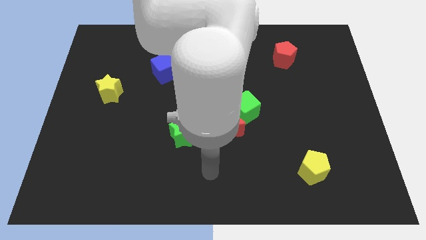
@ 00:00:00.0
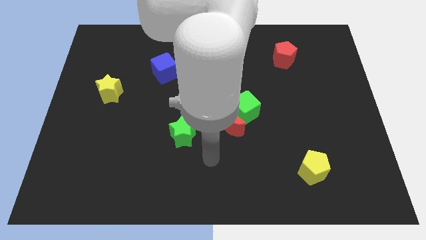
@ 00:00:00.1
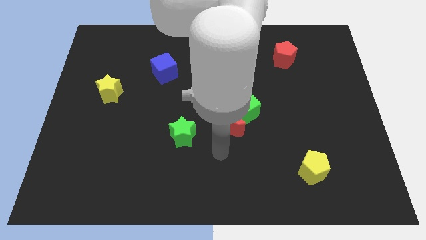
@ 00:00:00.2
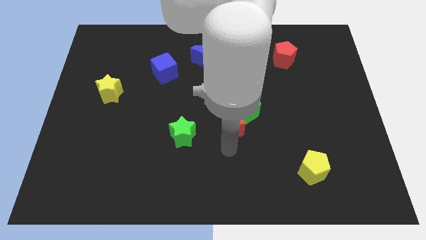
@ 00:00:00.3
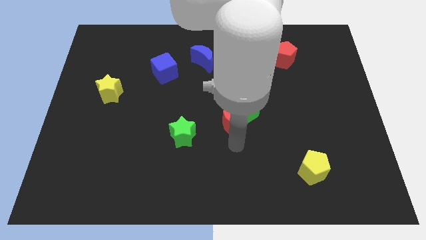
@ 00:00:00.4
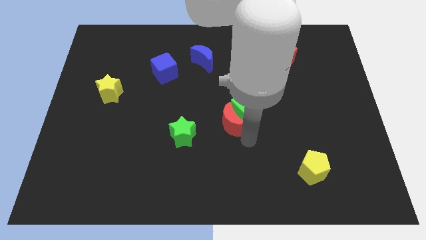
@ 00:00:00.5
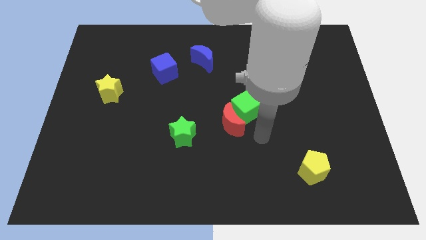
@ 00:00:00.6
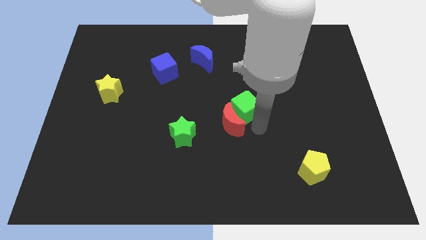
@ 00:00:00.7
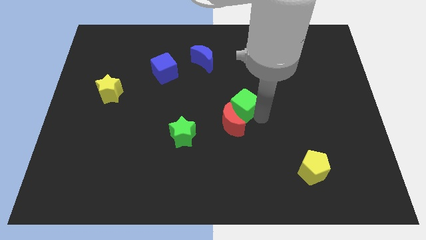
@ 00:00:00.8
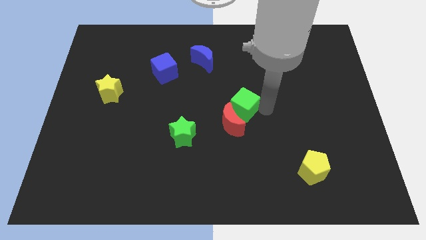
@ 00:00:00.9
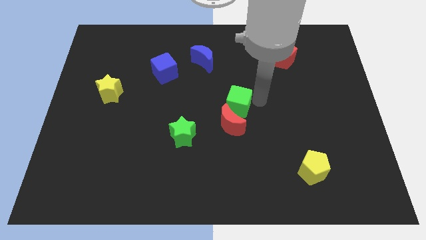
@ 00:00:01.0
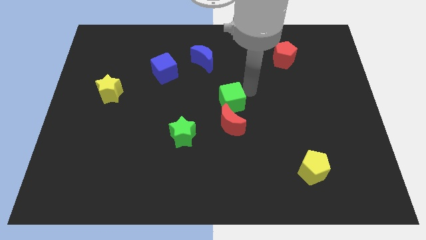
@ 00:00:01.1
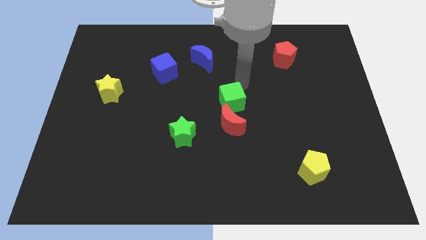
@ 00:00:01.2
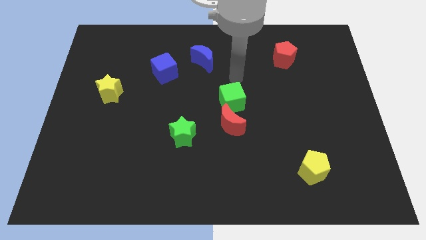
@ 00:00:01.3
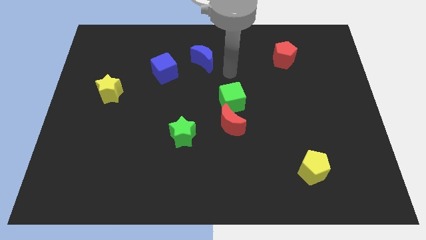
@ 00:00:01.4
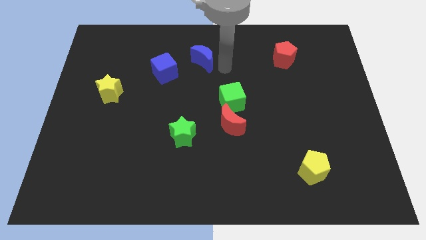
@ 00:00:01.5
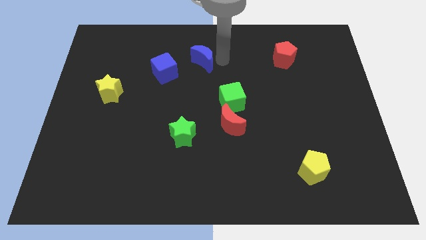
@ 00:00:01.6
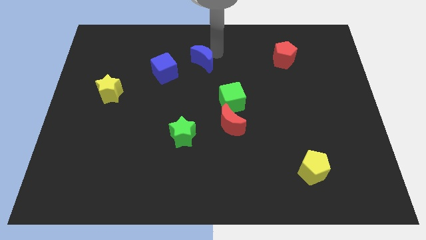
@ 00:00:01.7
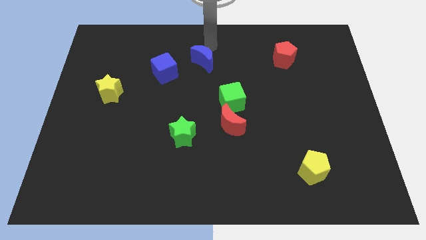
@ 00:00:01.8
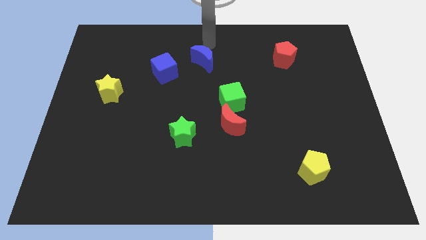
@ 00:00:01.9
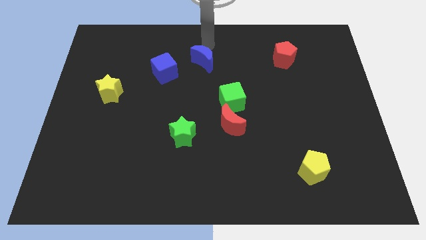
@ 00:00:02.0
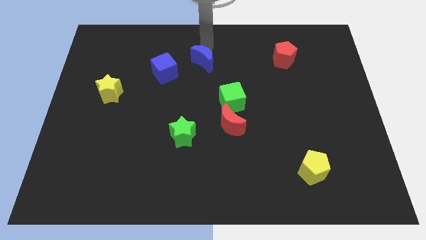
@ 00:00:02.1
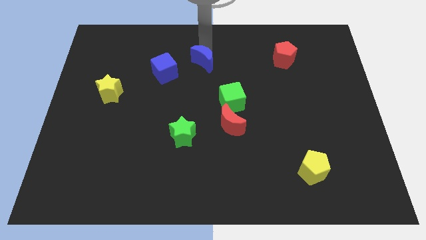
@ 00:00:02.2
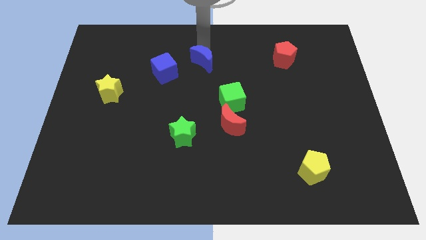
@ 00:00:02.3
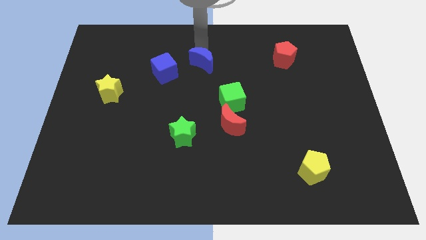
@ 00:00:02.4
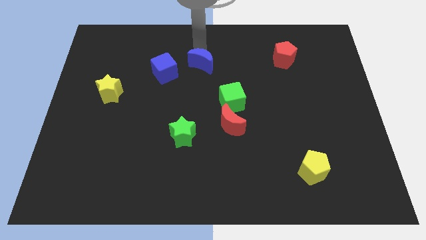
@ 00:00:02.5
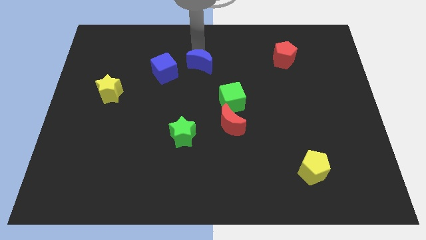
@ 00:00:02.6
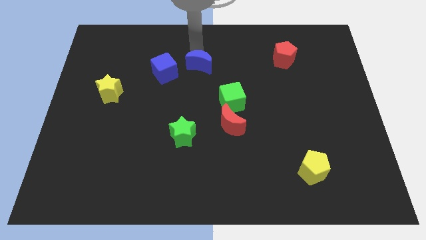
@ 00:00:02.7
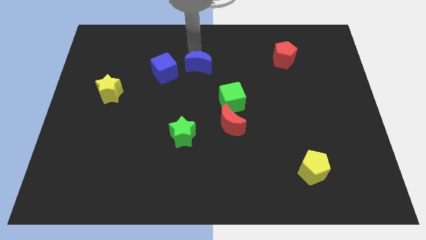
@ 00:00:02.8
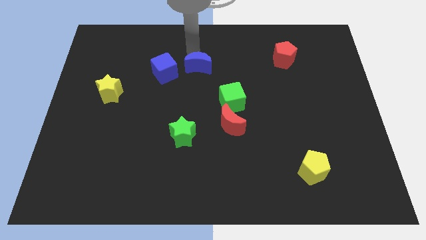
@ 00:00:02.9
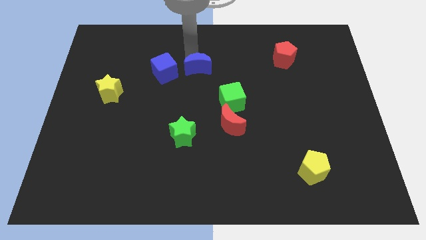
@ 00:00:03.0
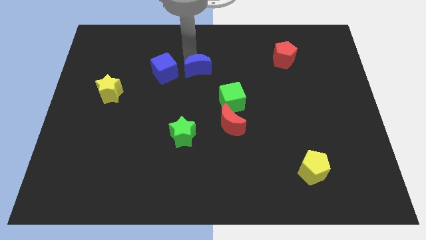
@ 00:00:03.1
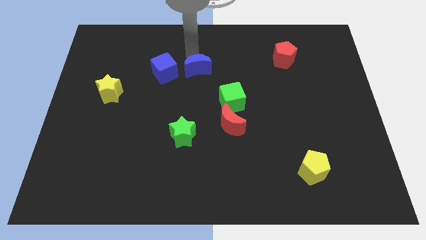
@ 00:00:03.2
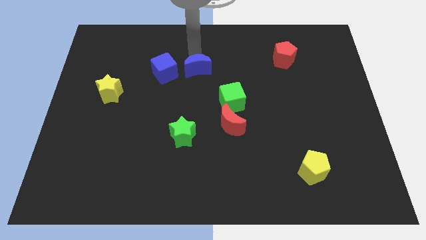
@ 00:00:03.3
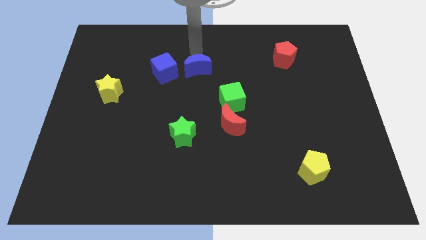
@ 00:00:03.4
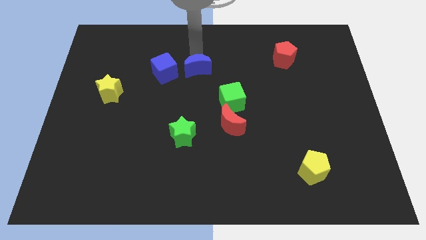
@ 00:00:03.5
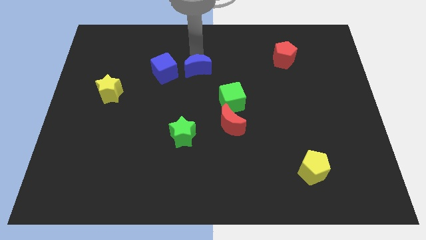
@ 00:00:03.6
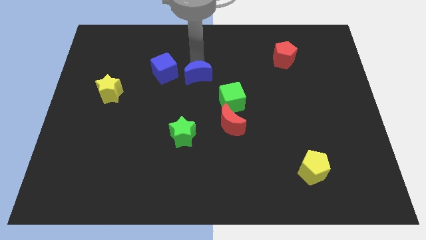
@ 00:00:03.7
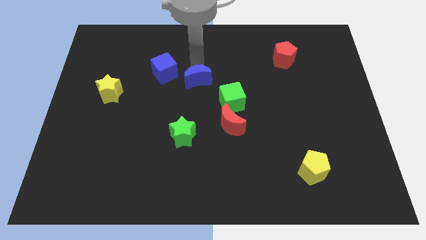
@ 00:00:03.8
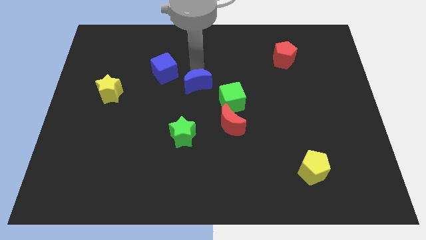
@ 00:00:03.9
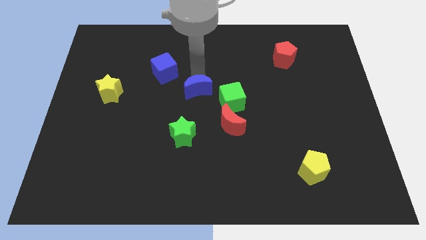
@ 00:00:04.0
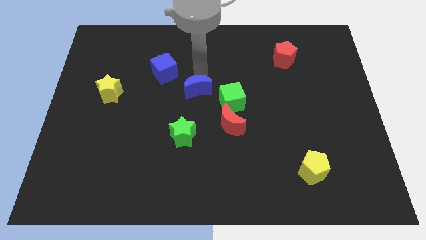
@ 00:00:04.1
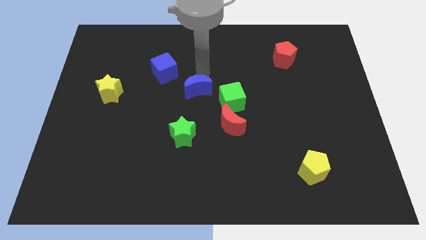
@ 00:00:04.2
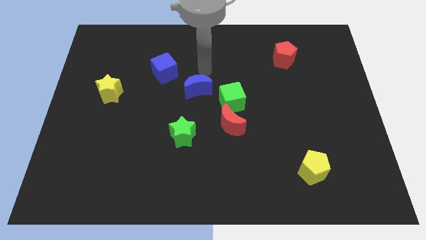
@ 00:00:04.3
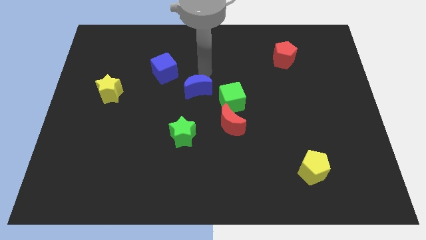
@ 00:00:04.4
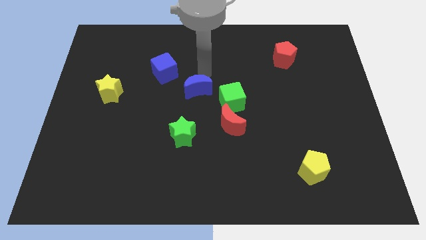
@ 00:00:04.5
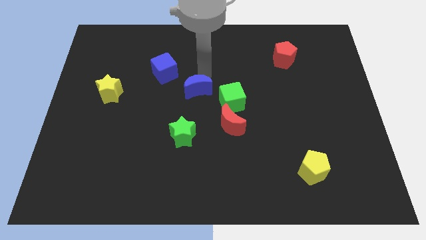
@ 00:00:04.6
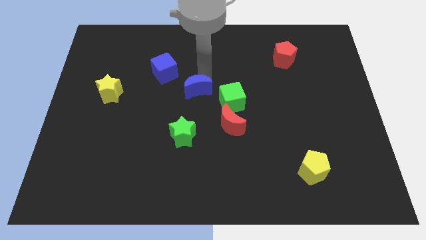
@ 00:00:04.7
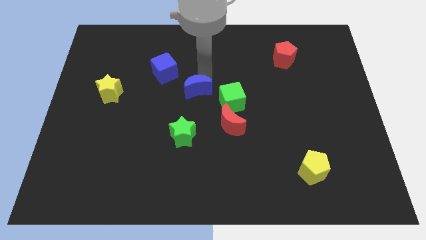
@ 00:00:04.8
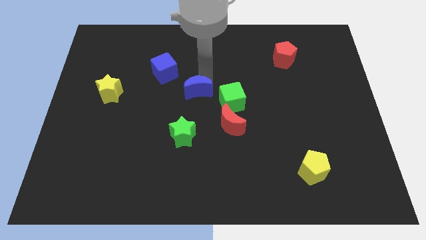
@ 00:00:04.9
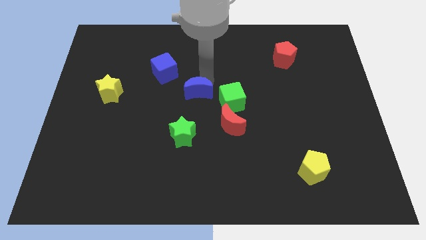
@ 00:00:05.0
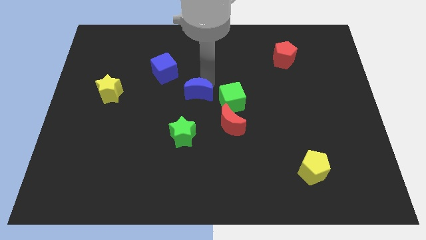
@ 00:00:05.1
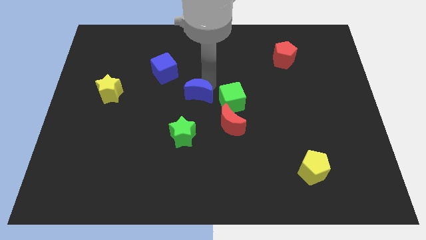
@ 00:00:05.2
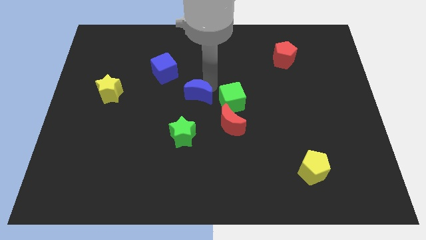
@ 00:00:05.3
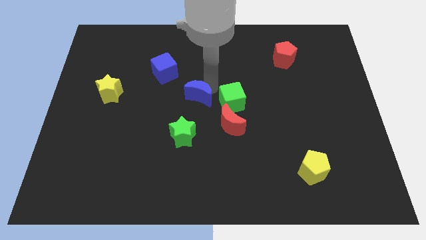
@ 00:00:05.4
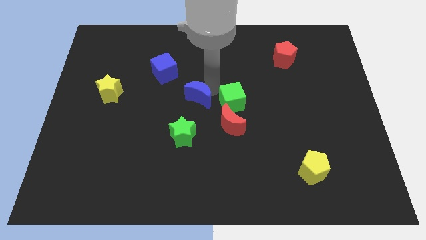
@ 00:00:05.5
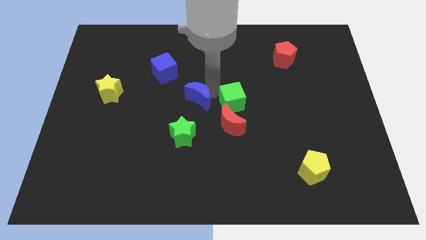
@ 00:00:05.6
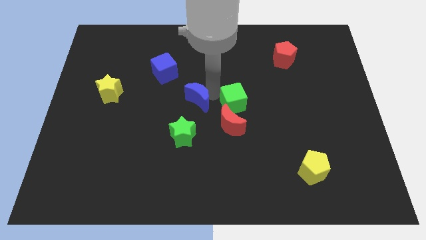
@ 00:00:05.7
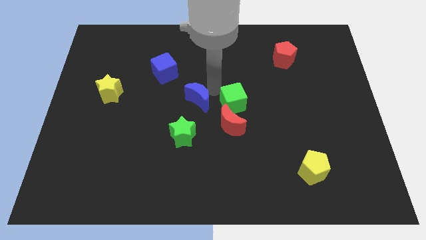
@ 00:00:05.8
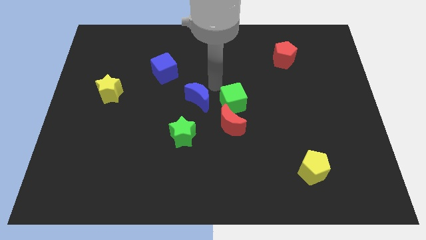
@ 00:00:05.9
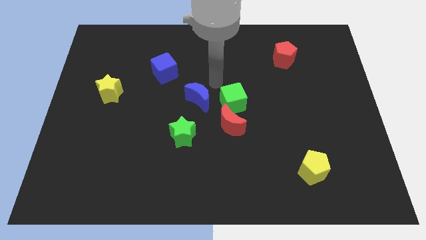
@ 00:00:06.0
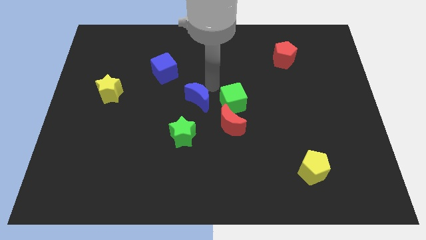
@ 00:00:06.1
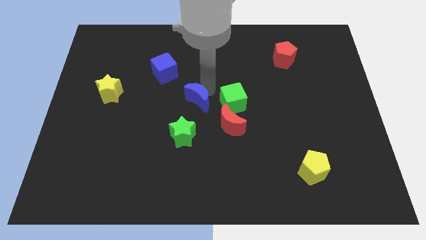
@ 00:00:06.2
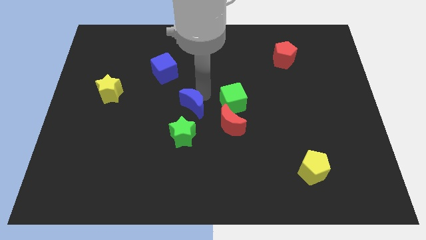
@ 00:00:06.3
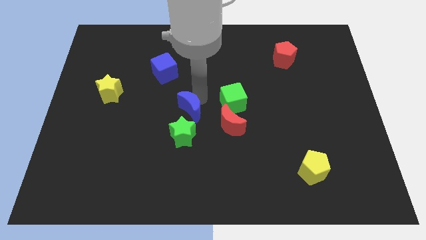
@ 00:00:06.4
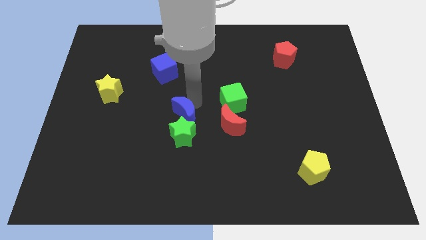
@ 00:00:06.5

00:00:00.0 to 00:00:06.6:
put the blue moon to the green star
